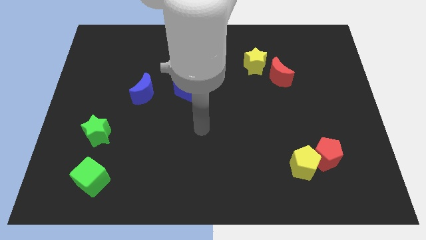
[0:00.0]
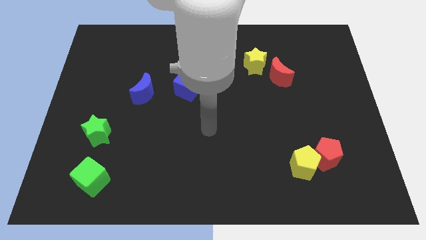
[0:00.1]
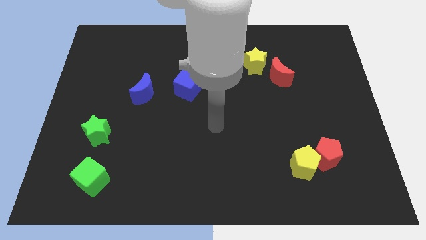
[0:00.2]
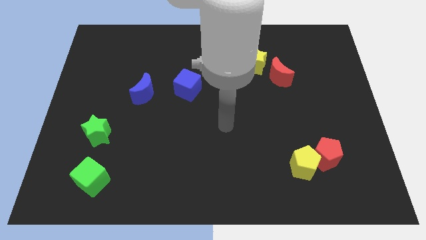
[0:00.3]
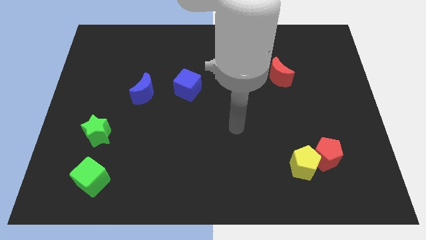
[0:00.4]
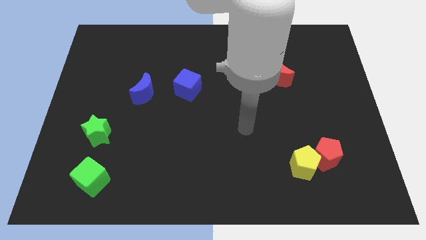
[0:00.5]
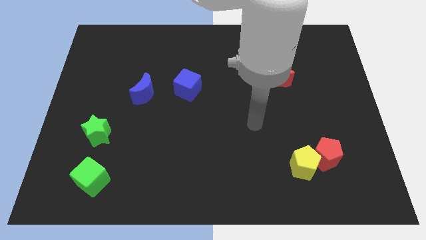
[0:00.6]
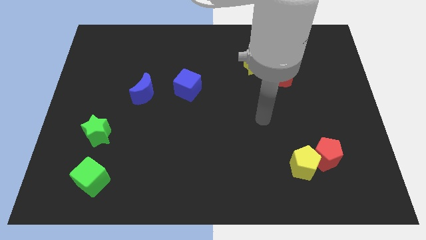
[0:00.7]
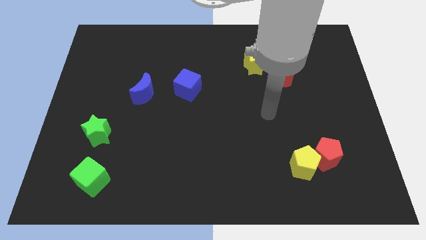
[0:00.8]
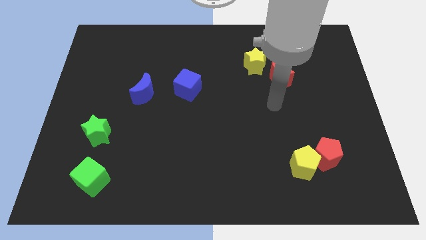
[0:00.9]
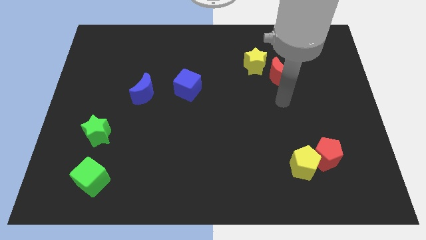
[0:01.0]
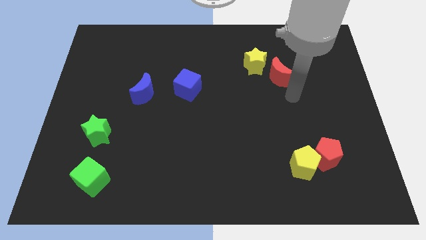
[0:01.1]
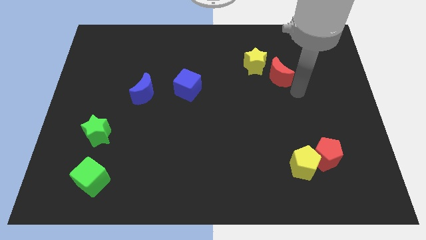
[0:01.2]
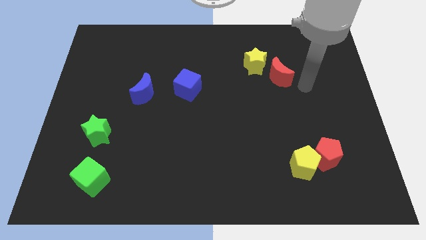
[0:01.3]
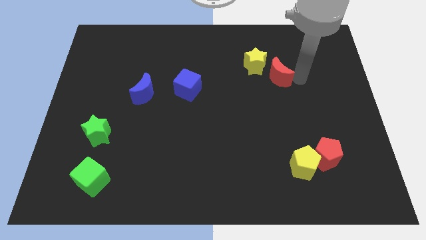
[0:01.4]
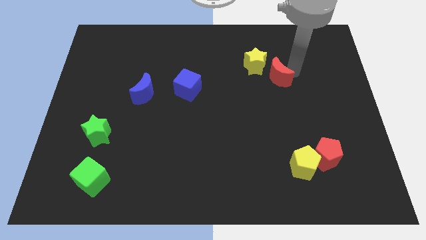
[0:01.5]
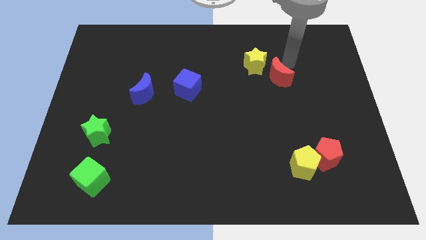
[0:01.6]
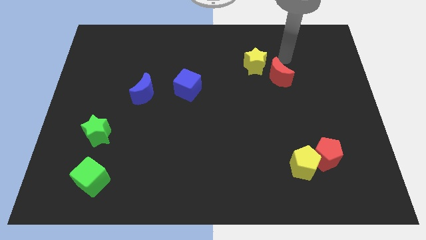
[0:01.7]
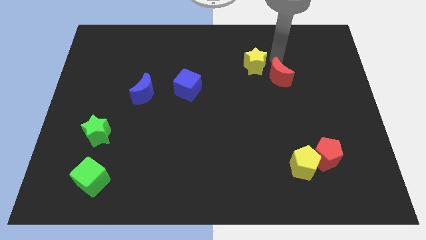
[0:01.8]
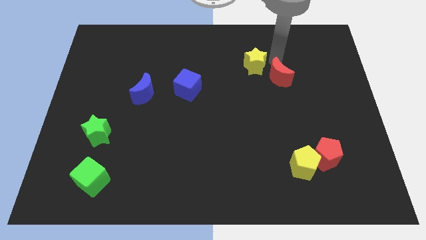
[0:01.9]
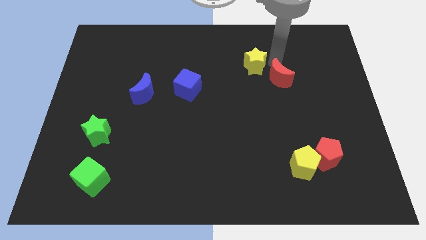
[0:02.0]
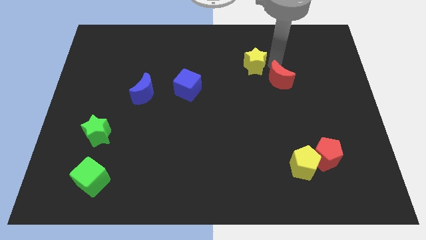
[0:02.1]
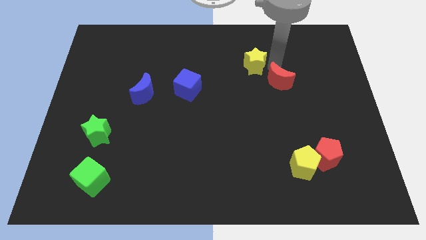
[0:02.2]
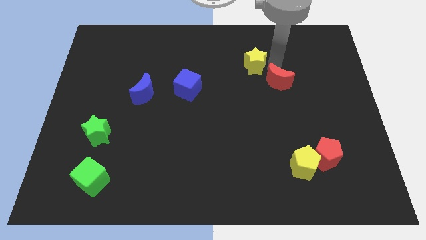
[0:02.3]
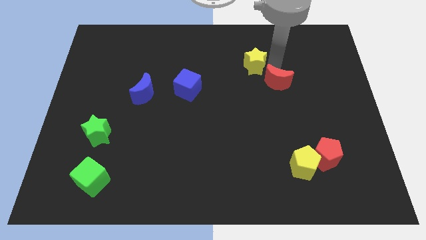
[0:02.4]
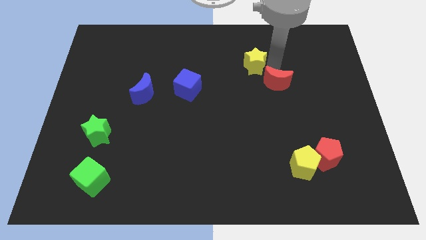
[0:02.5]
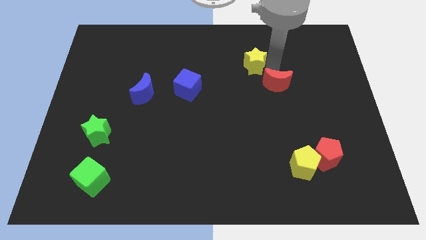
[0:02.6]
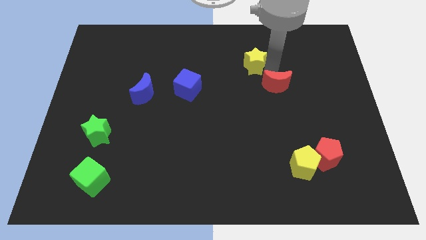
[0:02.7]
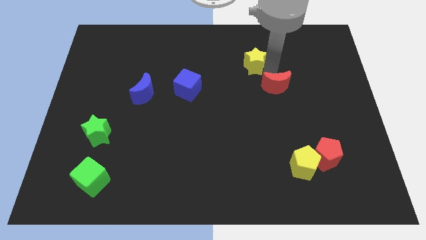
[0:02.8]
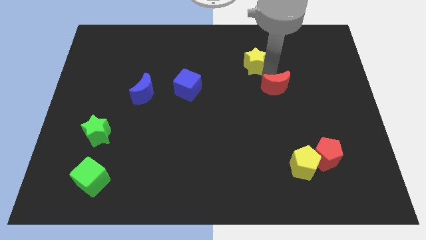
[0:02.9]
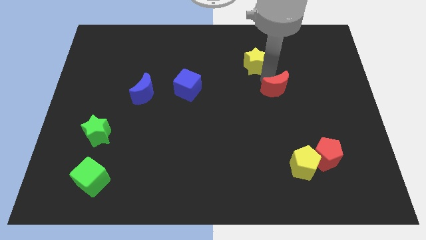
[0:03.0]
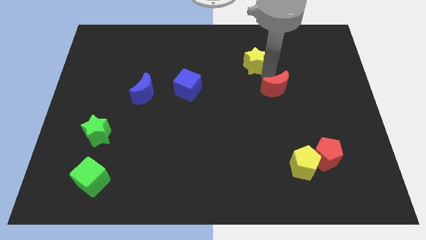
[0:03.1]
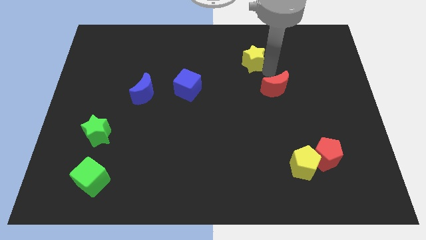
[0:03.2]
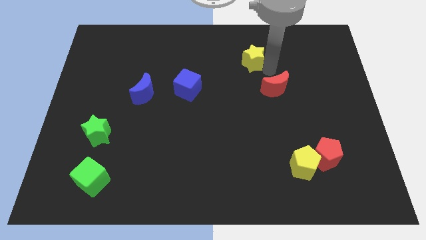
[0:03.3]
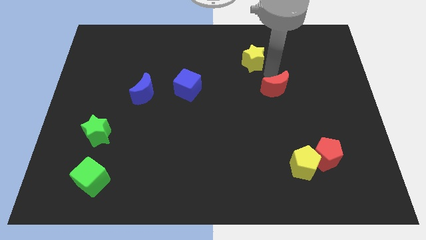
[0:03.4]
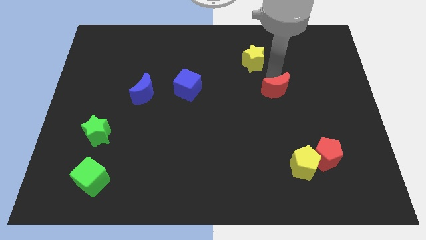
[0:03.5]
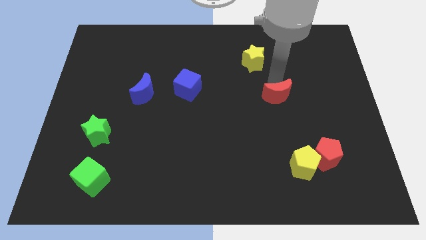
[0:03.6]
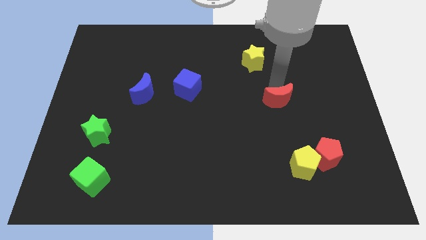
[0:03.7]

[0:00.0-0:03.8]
push the red moon a bit downwards

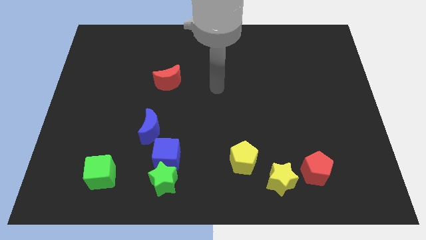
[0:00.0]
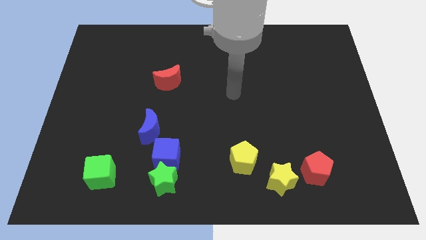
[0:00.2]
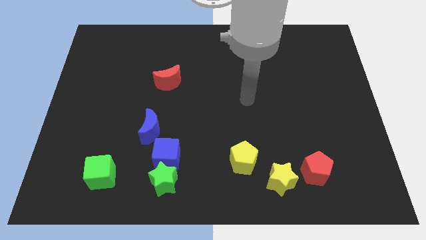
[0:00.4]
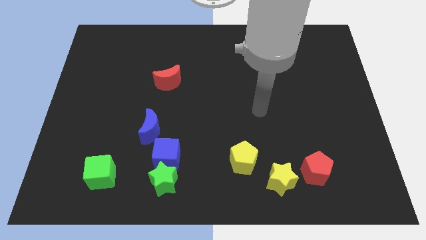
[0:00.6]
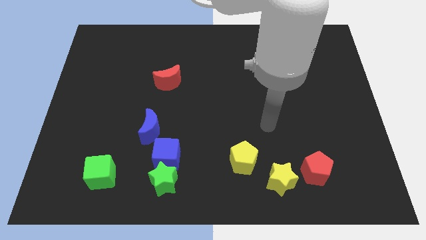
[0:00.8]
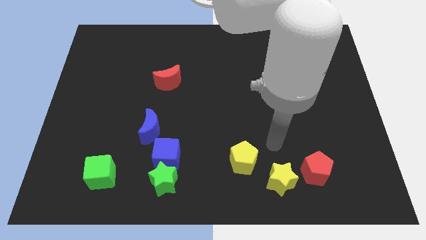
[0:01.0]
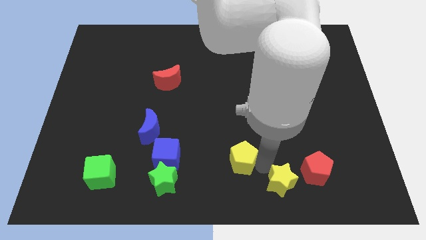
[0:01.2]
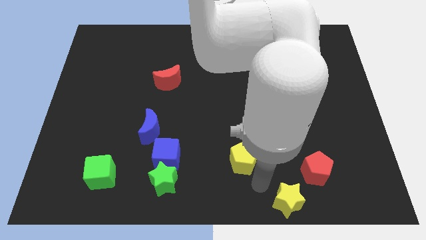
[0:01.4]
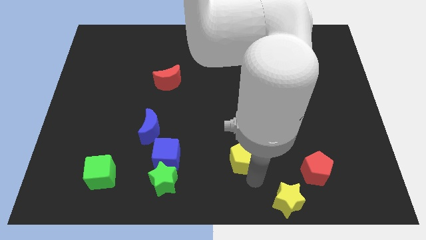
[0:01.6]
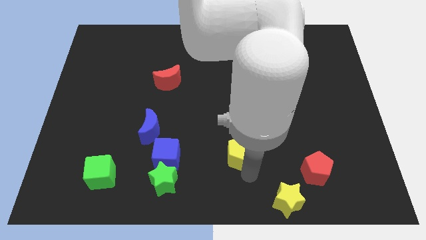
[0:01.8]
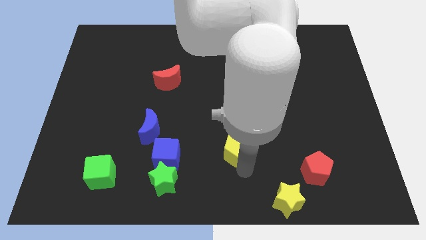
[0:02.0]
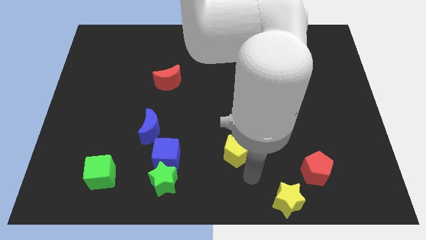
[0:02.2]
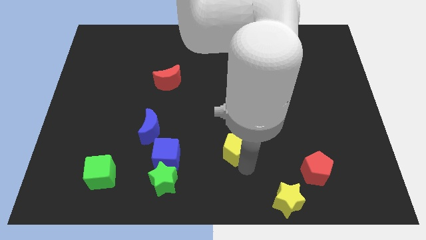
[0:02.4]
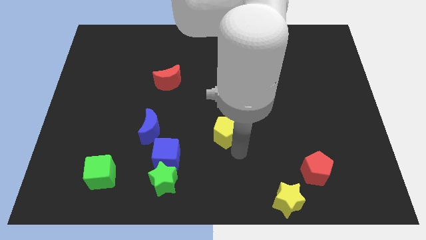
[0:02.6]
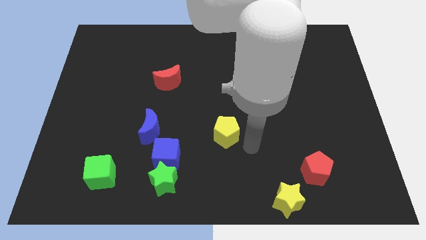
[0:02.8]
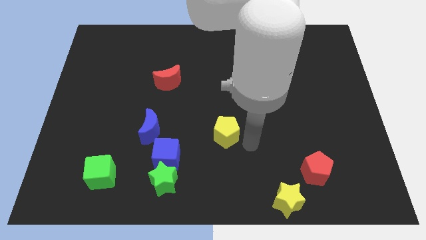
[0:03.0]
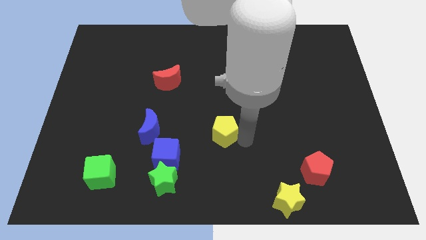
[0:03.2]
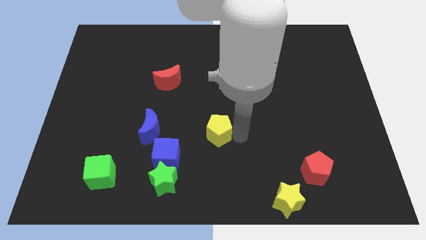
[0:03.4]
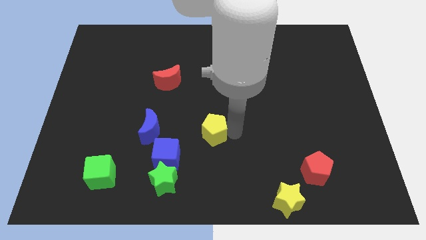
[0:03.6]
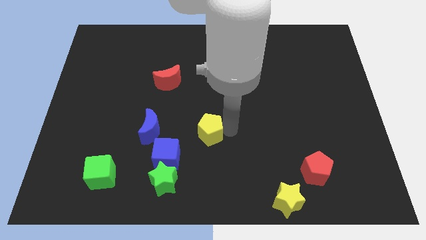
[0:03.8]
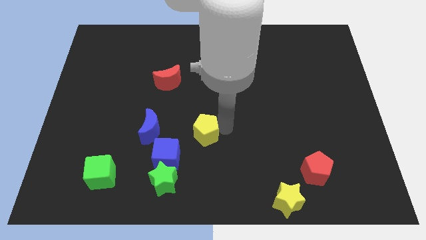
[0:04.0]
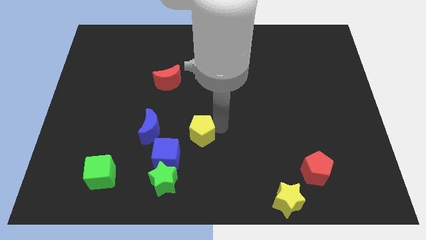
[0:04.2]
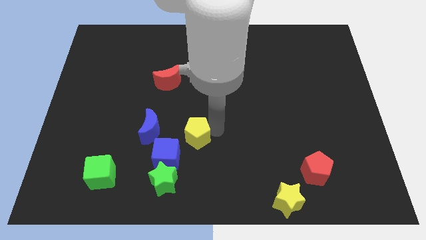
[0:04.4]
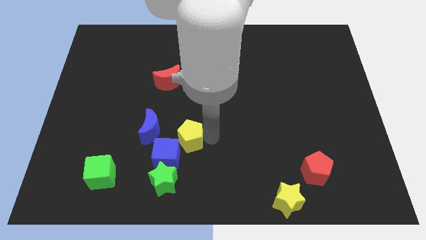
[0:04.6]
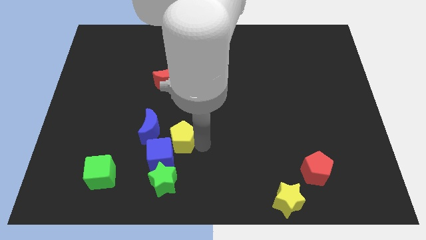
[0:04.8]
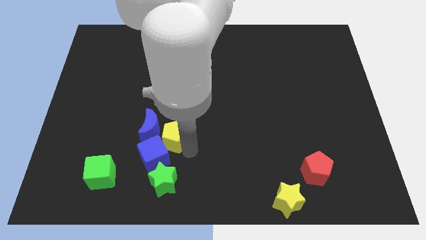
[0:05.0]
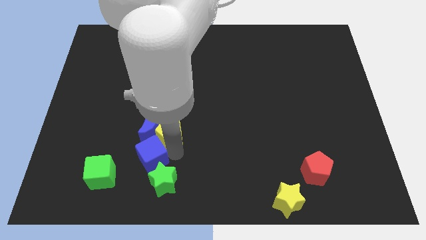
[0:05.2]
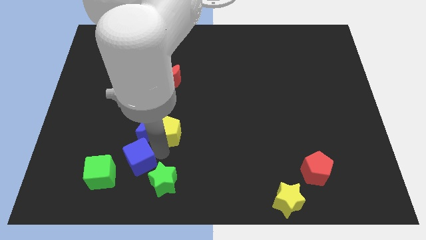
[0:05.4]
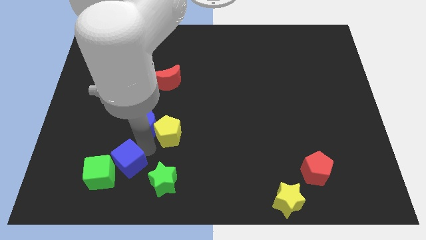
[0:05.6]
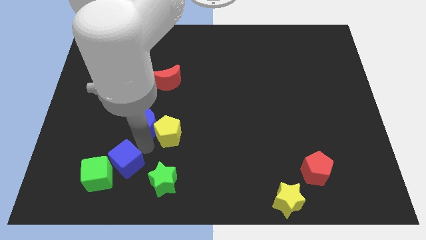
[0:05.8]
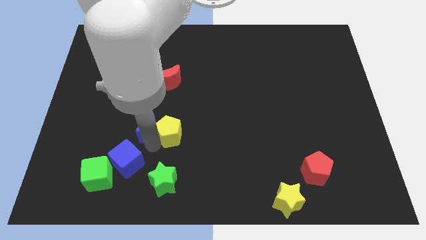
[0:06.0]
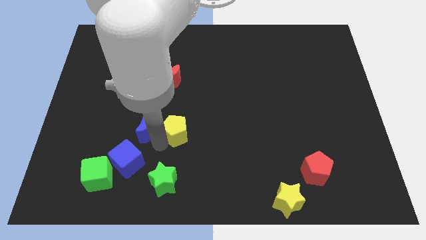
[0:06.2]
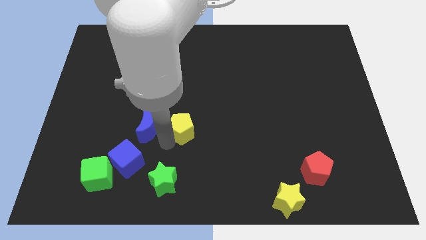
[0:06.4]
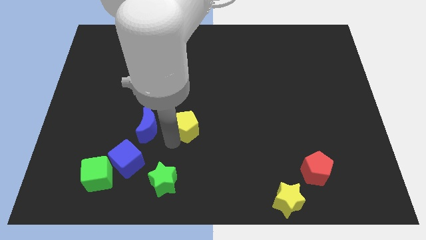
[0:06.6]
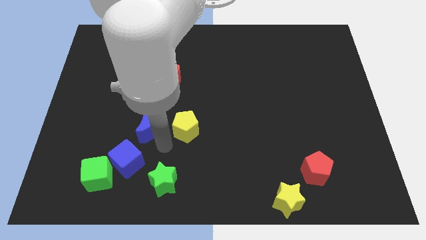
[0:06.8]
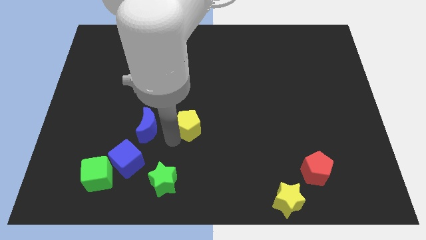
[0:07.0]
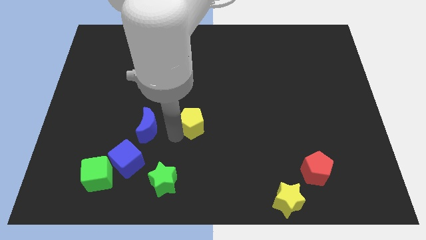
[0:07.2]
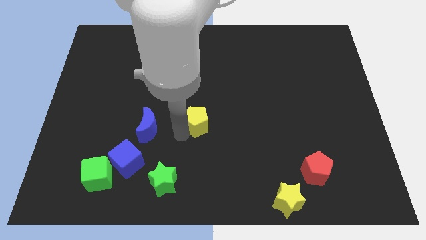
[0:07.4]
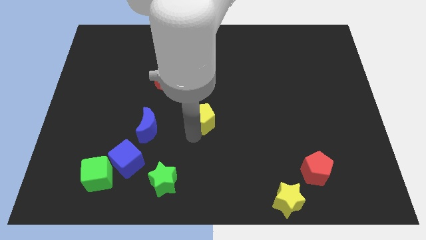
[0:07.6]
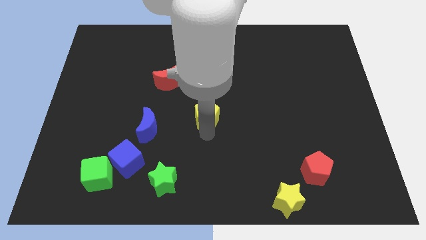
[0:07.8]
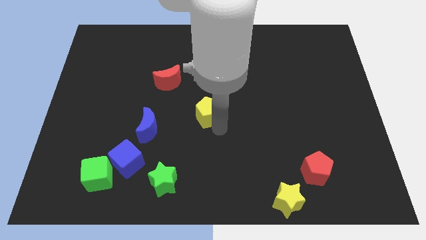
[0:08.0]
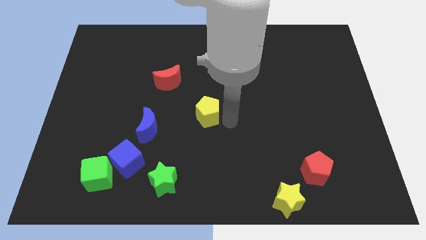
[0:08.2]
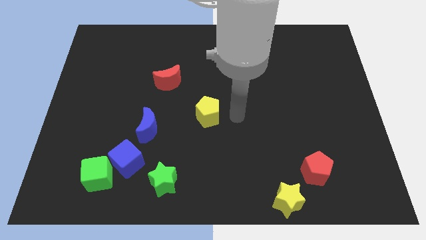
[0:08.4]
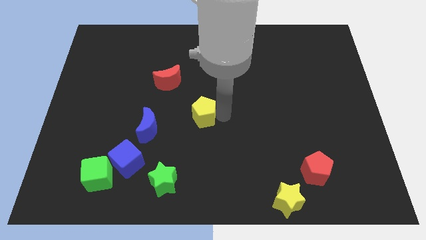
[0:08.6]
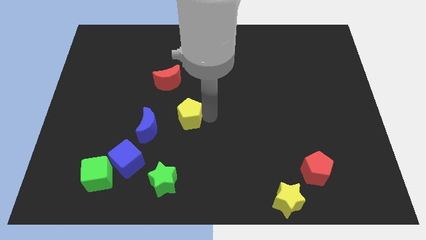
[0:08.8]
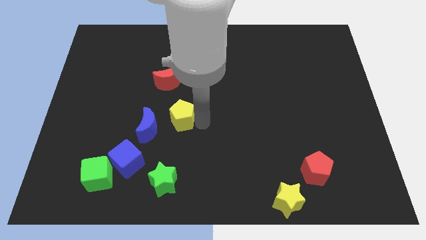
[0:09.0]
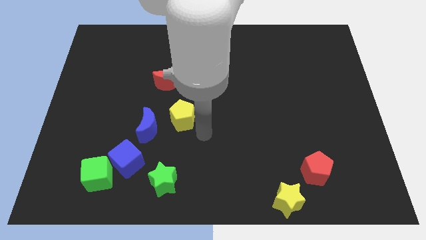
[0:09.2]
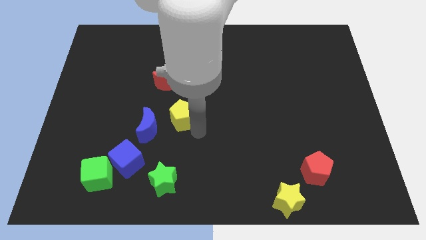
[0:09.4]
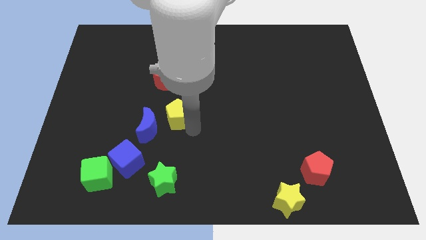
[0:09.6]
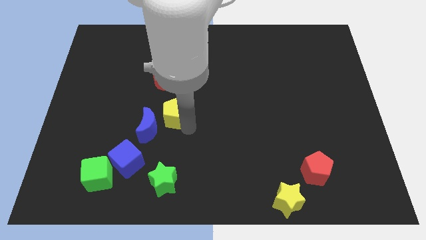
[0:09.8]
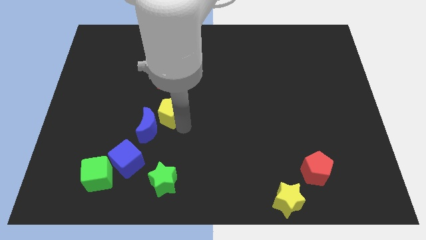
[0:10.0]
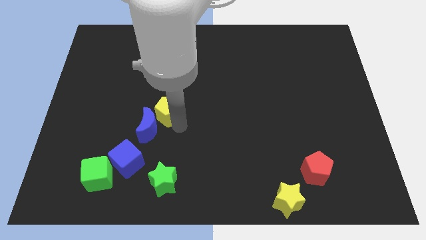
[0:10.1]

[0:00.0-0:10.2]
push the yellow pentagon upwards and left
